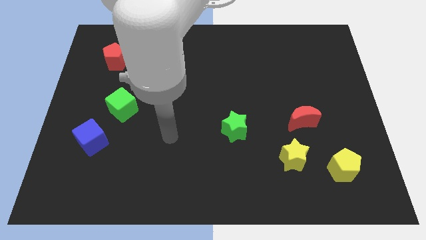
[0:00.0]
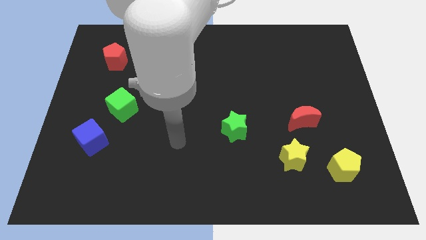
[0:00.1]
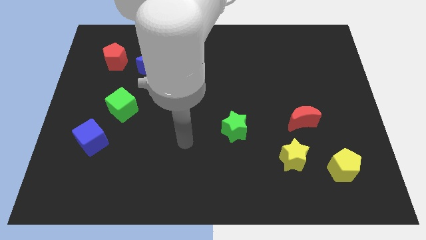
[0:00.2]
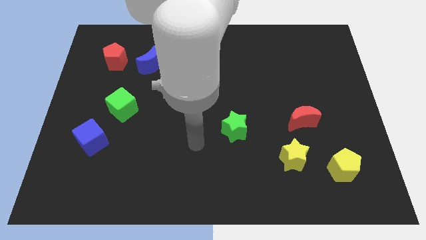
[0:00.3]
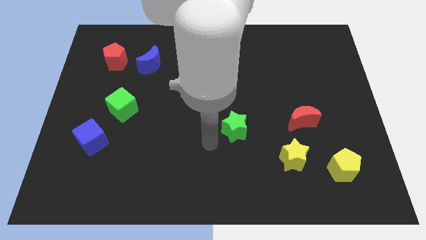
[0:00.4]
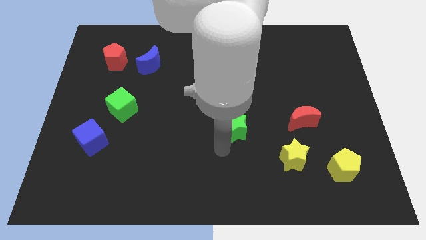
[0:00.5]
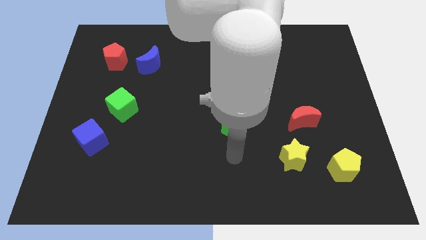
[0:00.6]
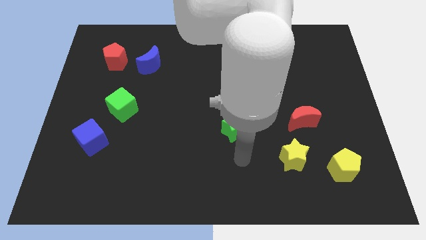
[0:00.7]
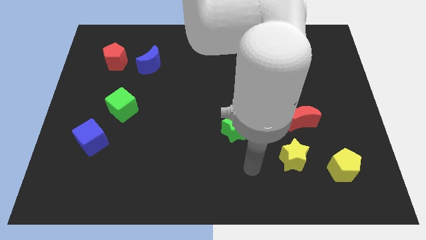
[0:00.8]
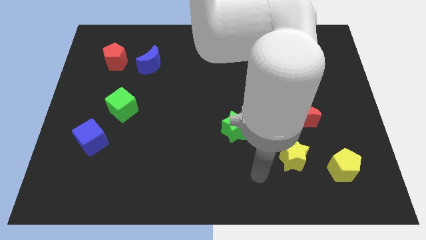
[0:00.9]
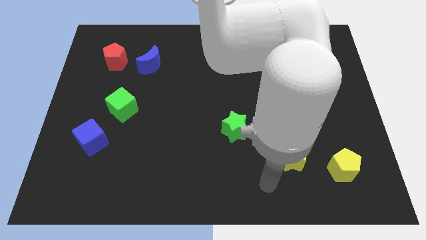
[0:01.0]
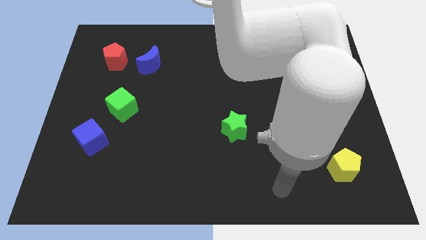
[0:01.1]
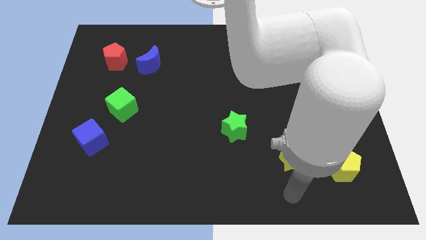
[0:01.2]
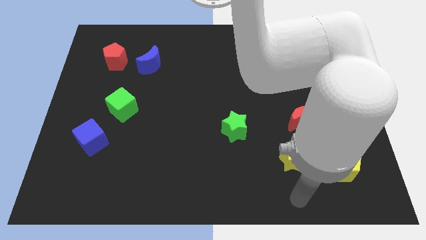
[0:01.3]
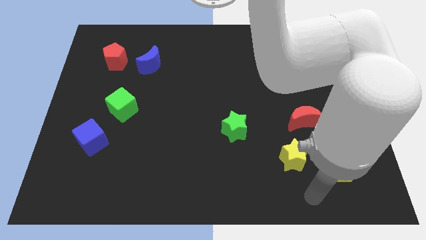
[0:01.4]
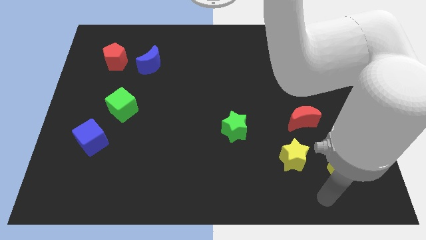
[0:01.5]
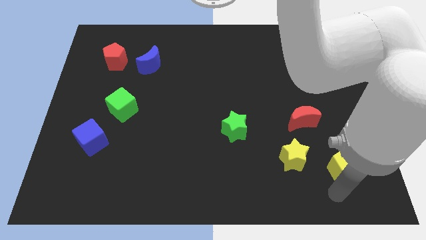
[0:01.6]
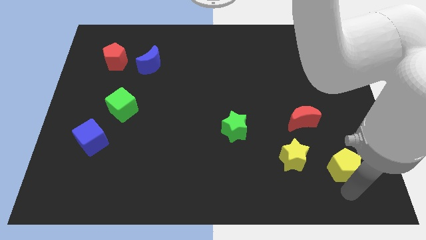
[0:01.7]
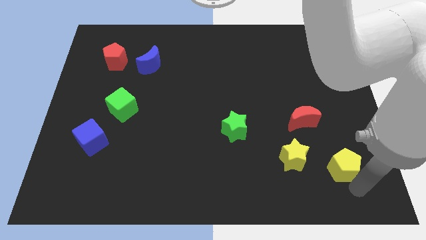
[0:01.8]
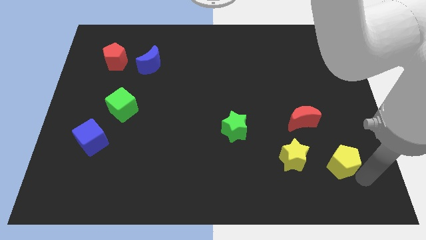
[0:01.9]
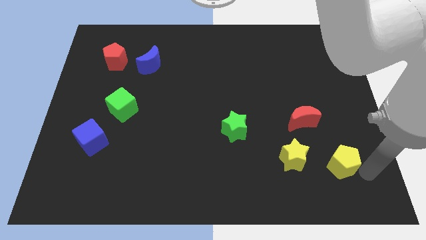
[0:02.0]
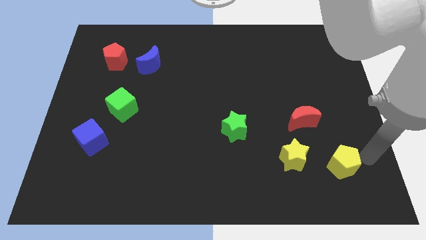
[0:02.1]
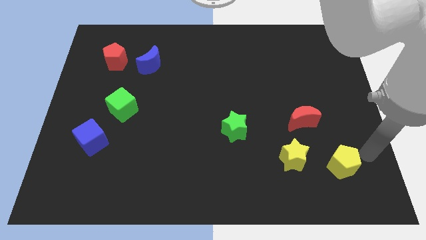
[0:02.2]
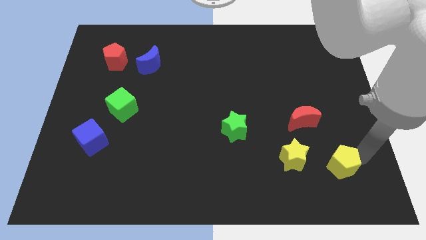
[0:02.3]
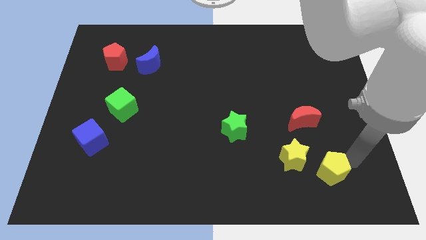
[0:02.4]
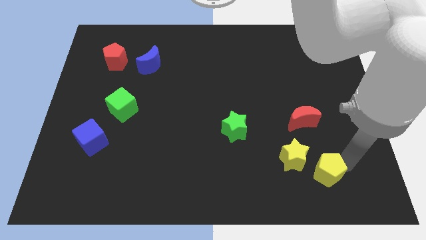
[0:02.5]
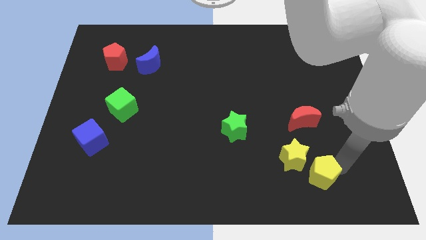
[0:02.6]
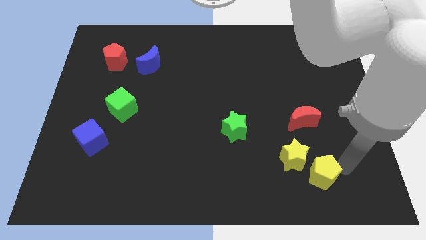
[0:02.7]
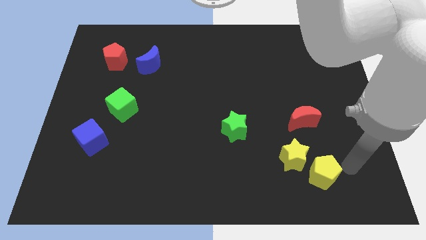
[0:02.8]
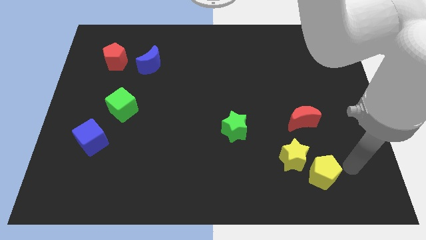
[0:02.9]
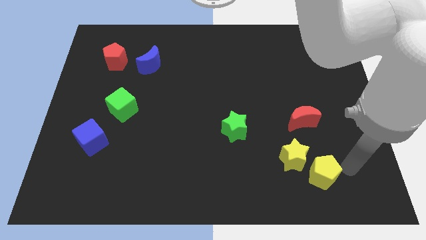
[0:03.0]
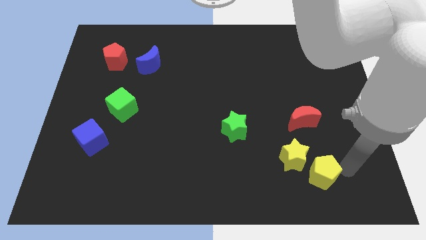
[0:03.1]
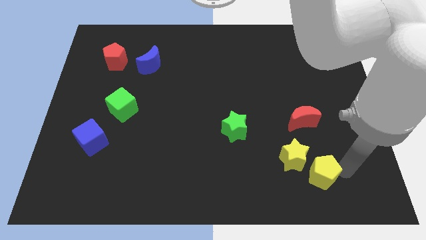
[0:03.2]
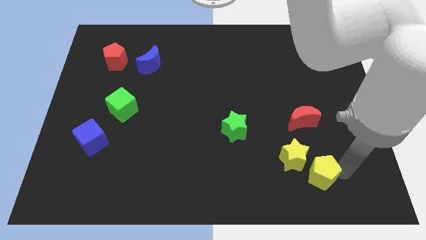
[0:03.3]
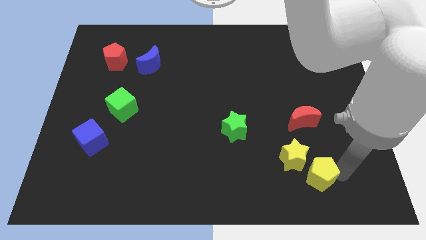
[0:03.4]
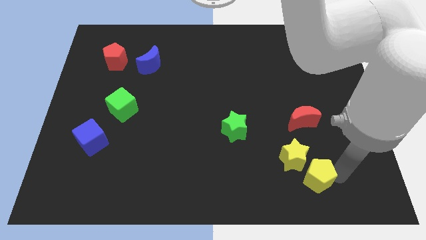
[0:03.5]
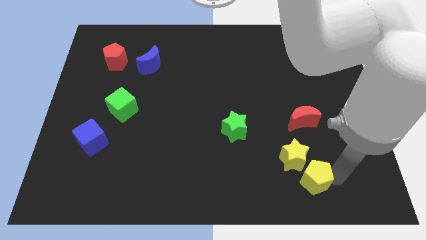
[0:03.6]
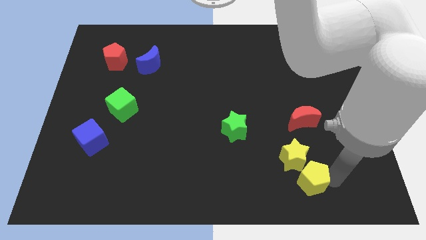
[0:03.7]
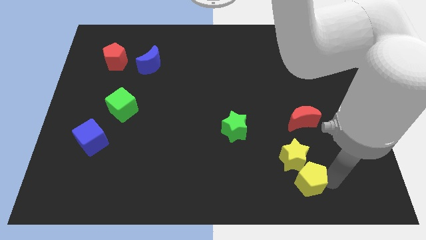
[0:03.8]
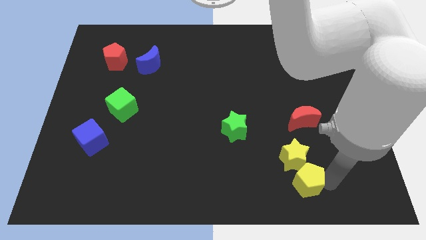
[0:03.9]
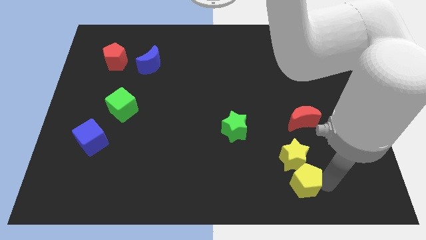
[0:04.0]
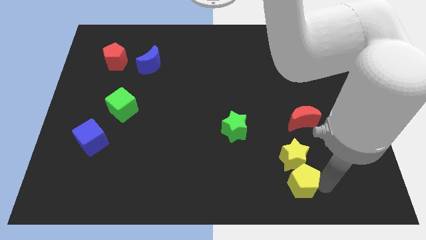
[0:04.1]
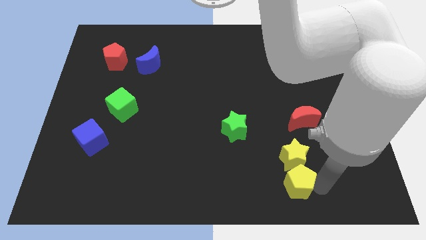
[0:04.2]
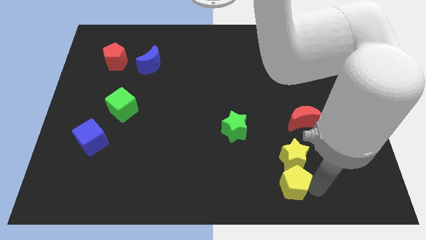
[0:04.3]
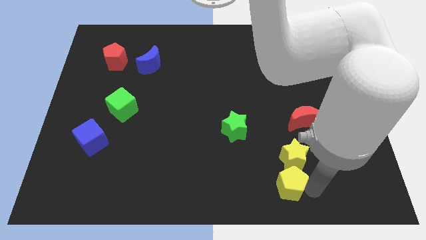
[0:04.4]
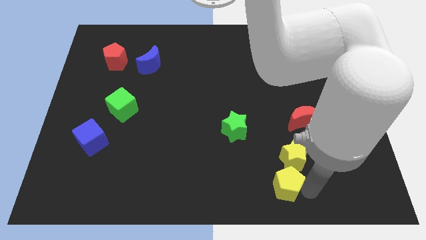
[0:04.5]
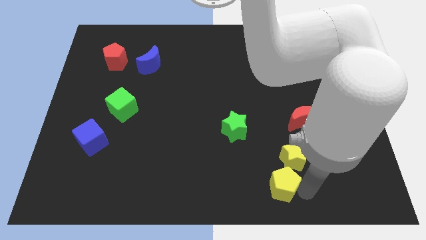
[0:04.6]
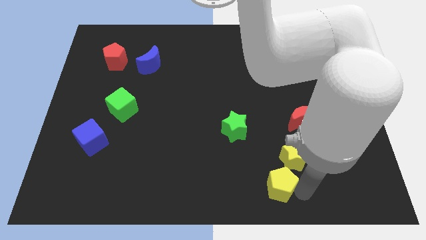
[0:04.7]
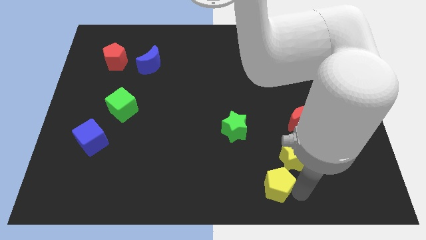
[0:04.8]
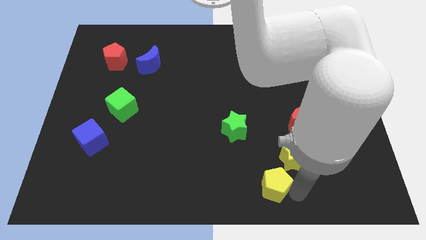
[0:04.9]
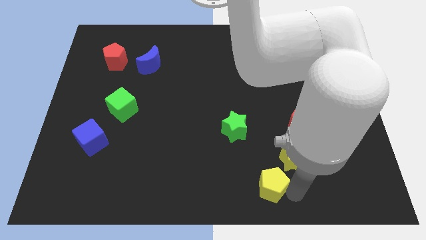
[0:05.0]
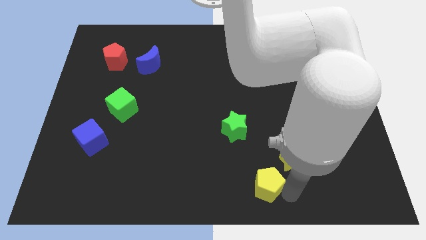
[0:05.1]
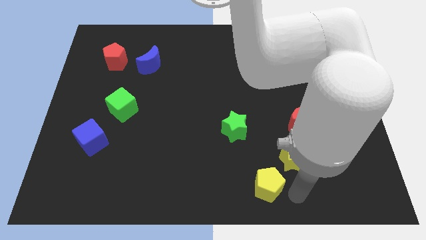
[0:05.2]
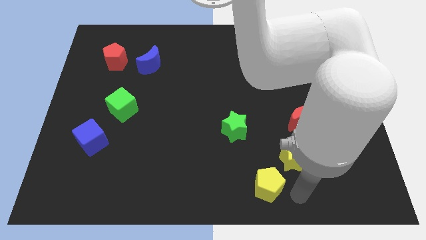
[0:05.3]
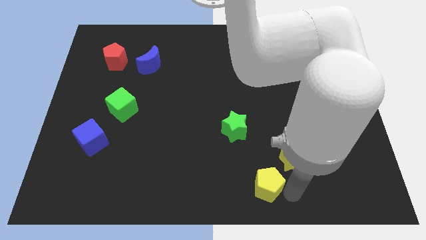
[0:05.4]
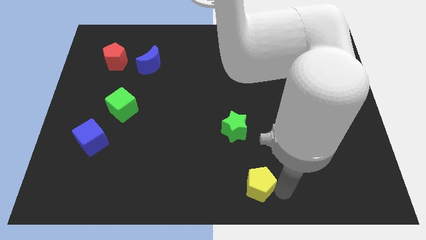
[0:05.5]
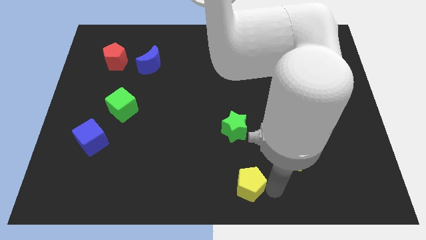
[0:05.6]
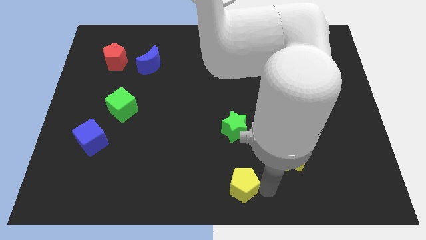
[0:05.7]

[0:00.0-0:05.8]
move the yellow pentagon left

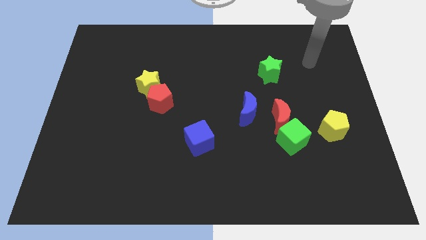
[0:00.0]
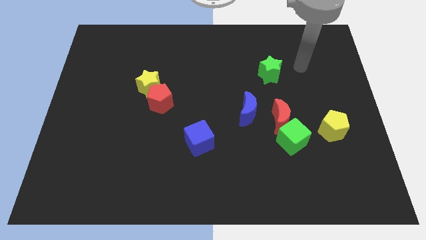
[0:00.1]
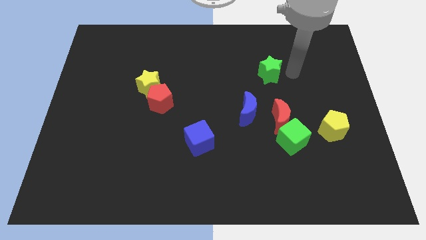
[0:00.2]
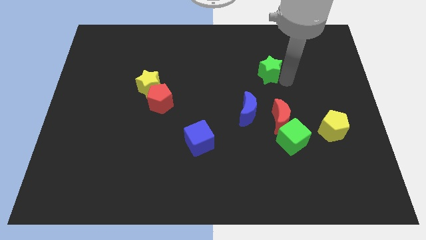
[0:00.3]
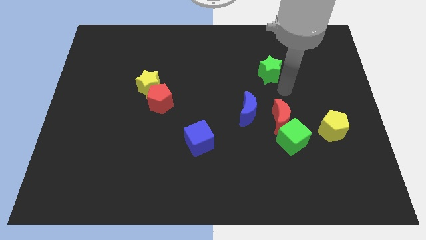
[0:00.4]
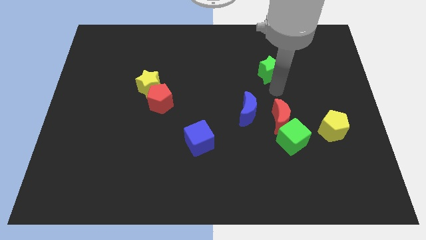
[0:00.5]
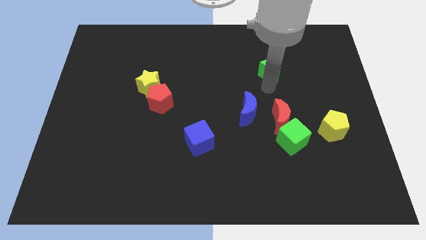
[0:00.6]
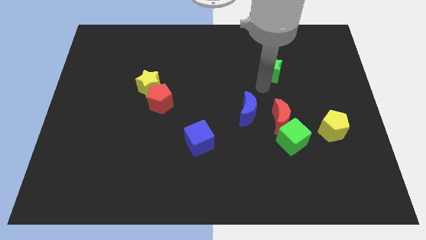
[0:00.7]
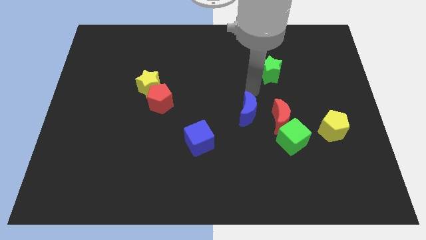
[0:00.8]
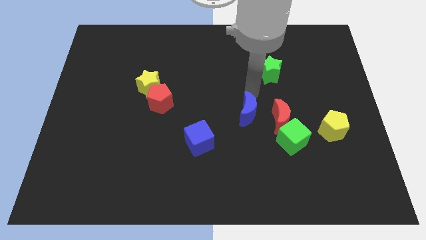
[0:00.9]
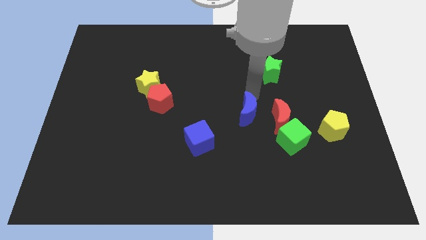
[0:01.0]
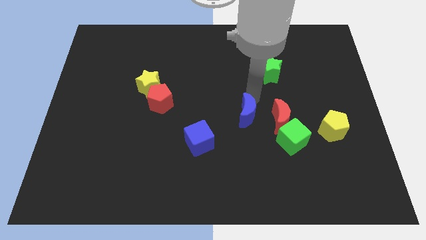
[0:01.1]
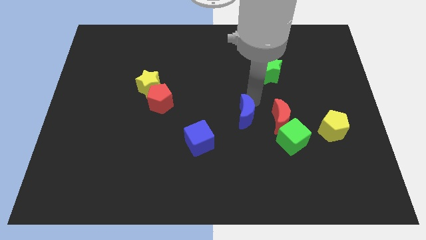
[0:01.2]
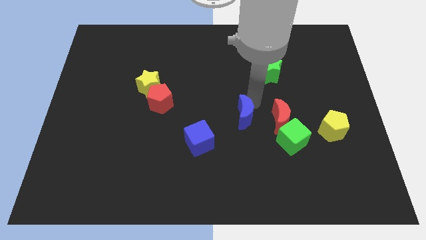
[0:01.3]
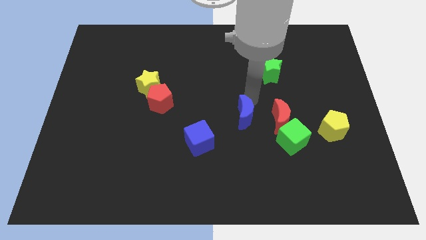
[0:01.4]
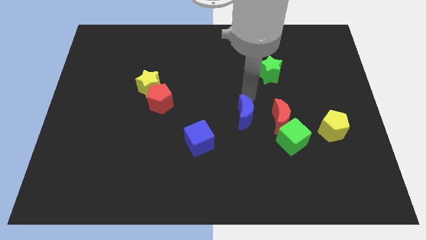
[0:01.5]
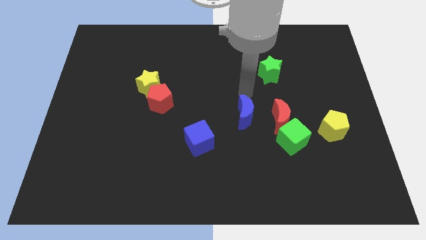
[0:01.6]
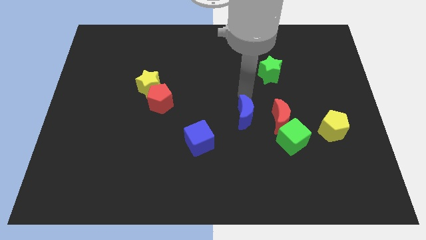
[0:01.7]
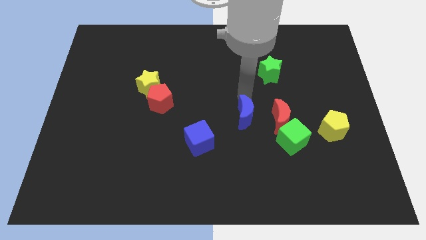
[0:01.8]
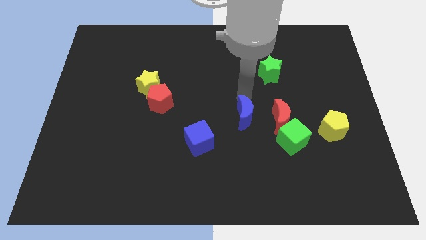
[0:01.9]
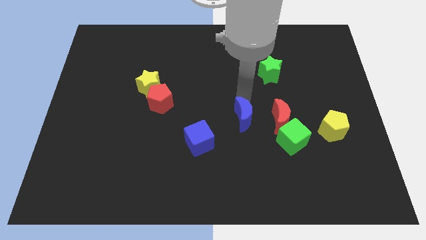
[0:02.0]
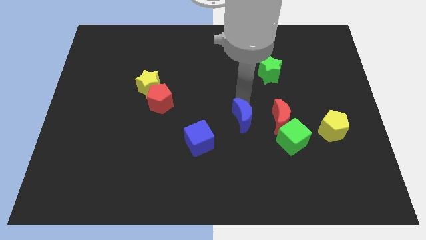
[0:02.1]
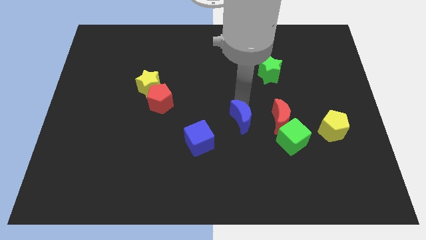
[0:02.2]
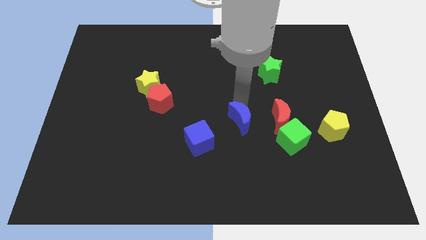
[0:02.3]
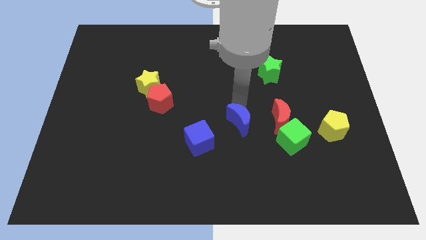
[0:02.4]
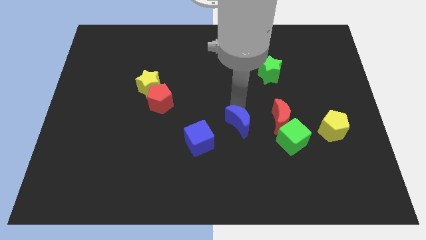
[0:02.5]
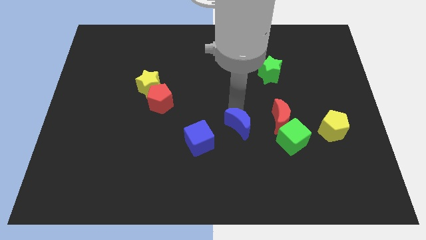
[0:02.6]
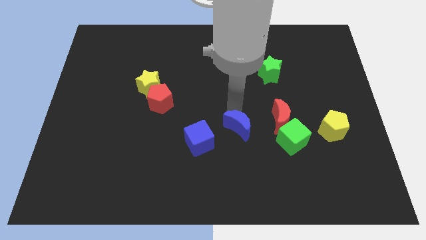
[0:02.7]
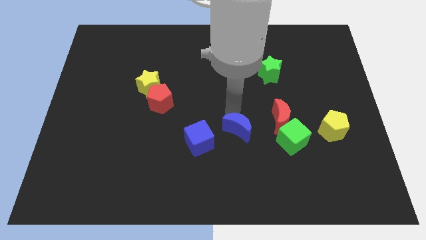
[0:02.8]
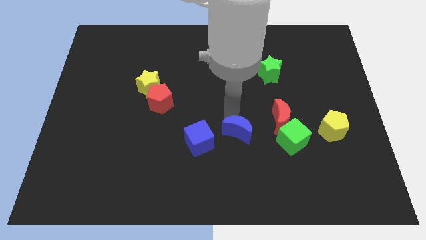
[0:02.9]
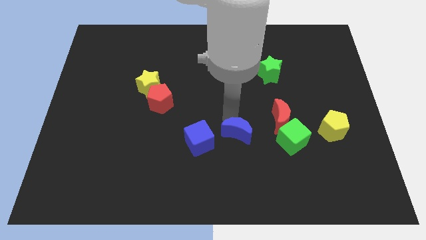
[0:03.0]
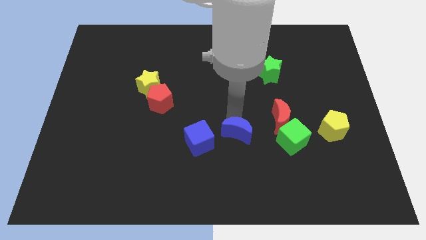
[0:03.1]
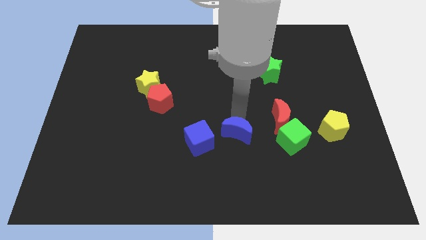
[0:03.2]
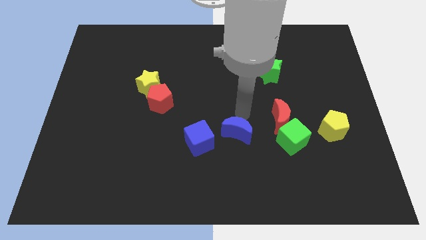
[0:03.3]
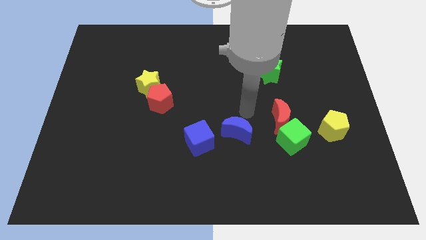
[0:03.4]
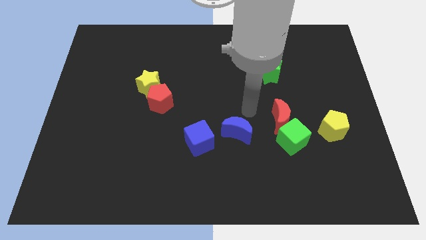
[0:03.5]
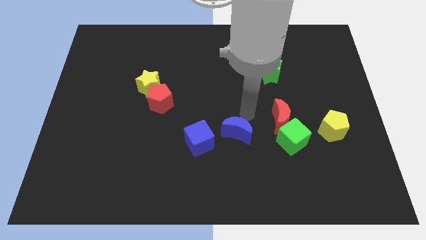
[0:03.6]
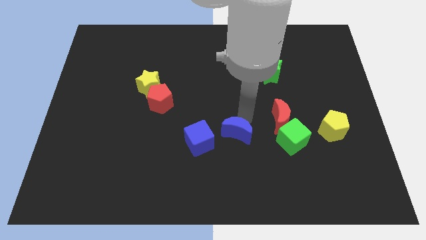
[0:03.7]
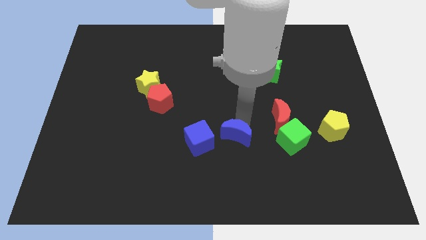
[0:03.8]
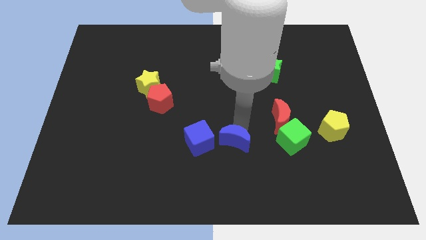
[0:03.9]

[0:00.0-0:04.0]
slide the blue moon a little bit downwards and then left
